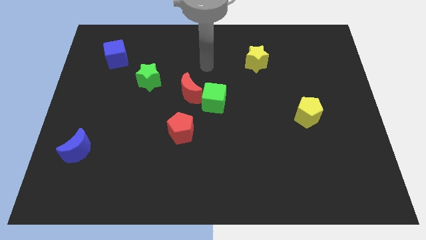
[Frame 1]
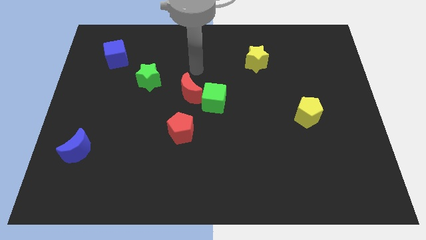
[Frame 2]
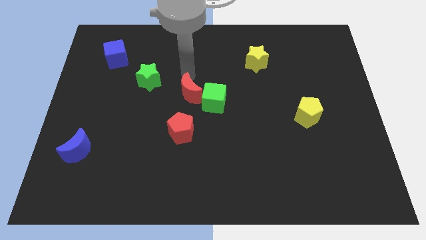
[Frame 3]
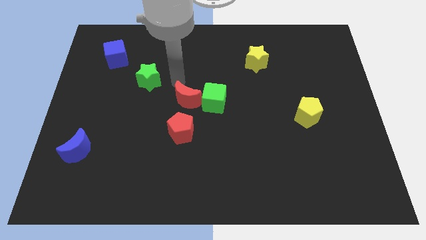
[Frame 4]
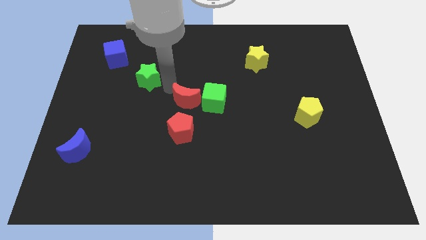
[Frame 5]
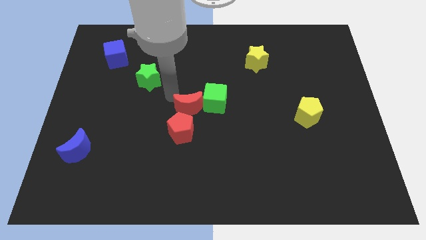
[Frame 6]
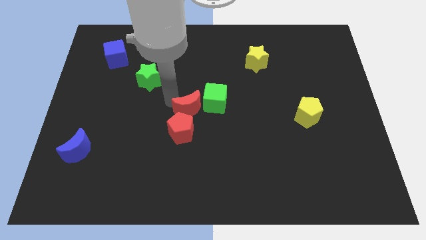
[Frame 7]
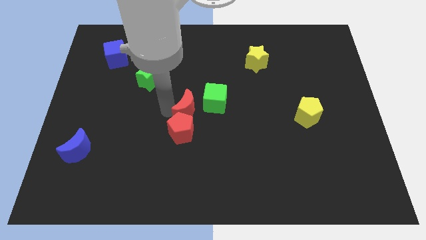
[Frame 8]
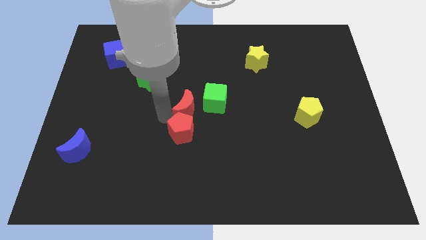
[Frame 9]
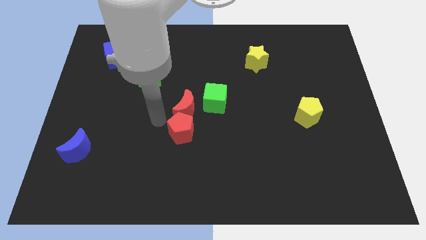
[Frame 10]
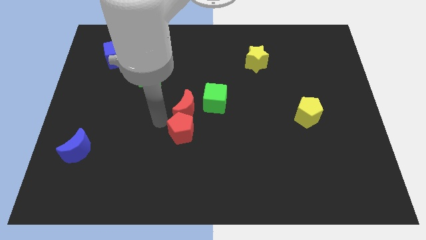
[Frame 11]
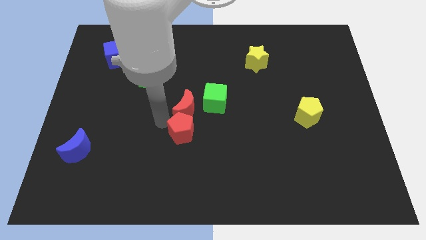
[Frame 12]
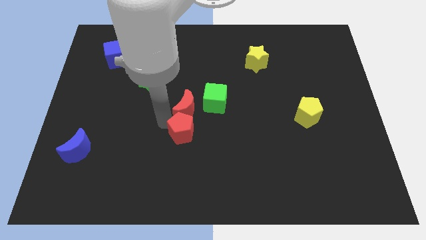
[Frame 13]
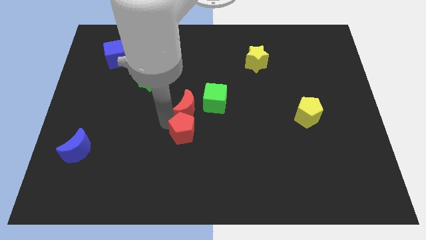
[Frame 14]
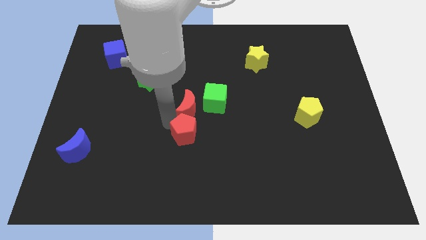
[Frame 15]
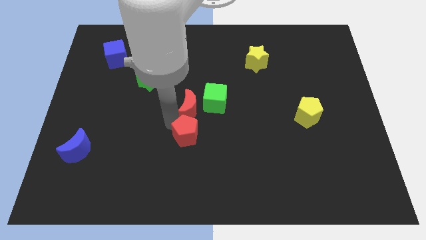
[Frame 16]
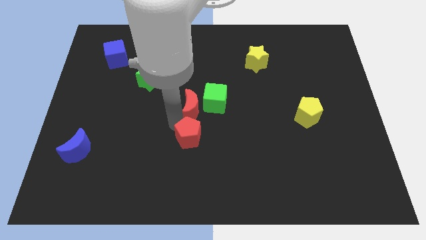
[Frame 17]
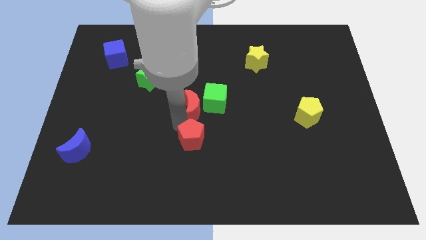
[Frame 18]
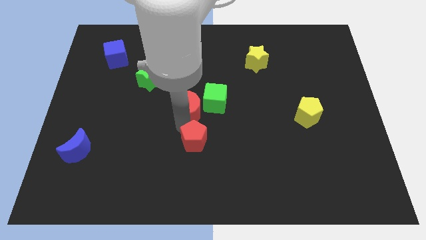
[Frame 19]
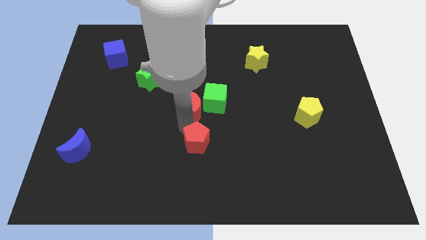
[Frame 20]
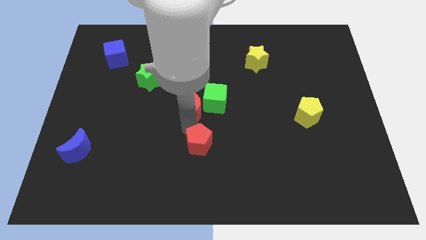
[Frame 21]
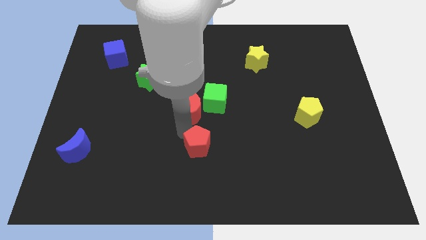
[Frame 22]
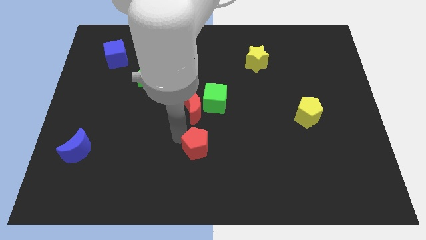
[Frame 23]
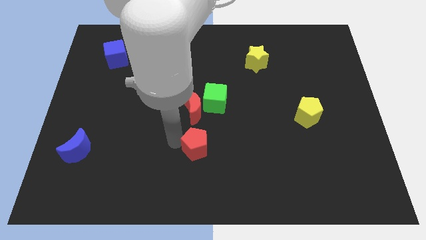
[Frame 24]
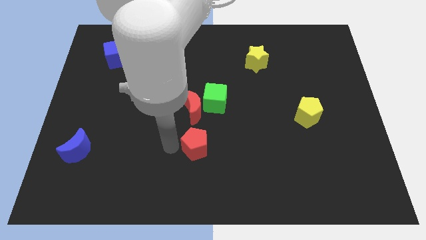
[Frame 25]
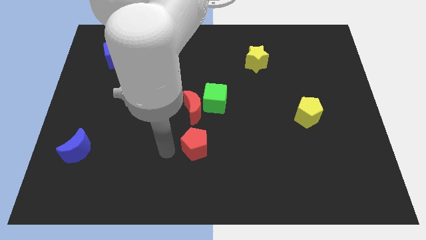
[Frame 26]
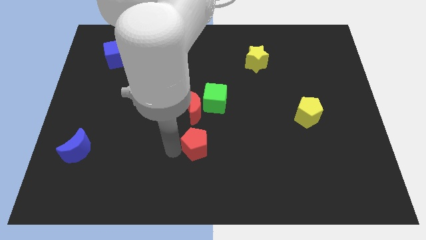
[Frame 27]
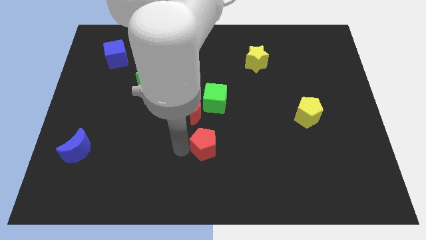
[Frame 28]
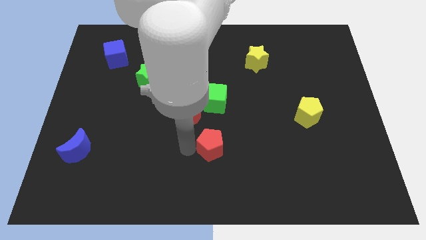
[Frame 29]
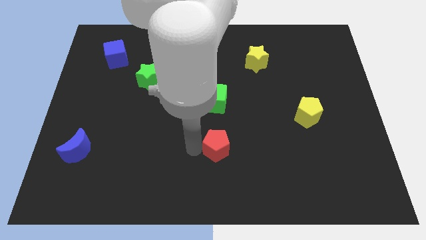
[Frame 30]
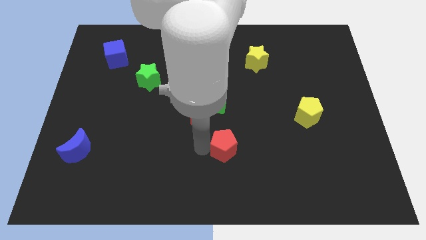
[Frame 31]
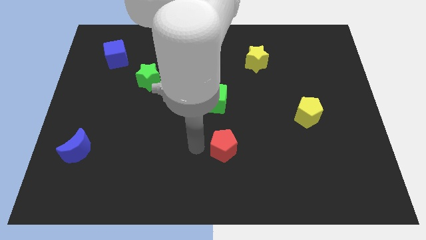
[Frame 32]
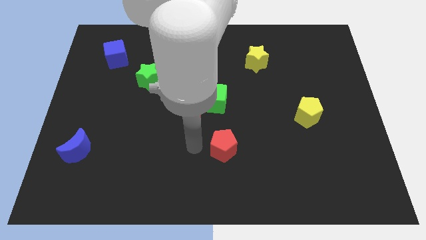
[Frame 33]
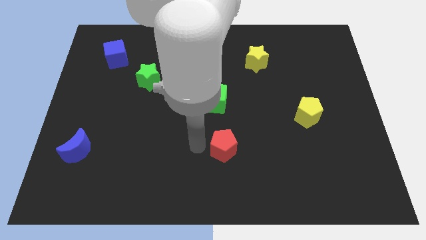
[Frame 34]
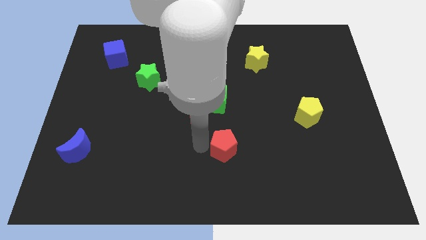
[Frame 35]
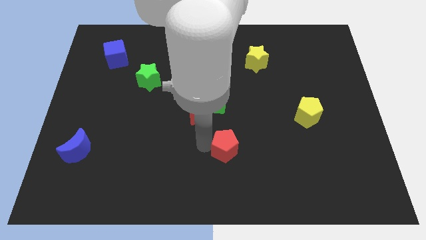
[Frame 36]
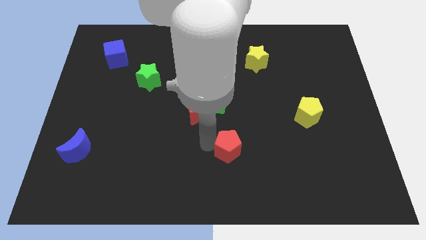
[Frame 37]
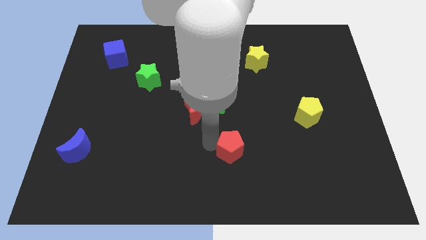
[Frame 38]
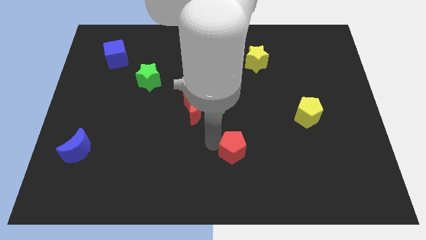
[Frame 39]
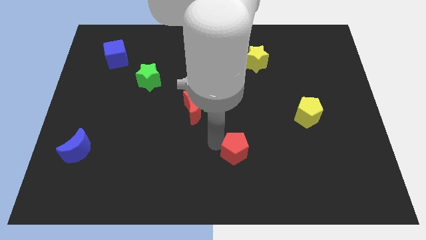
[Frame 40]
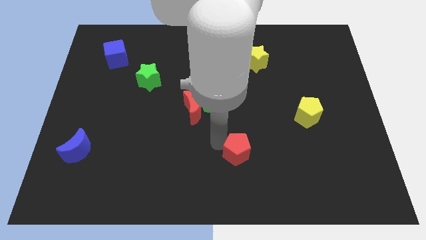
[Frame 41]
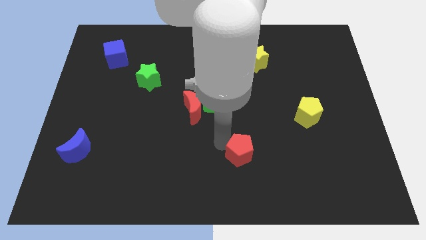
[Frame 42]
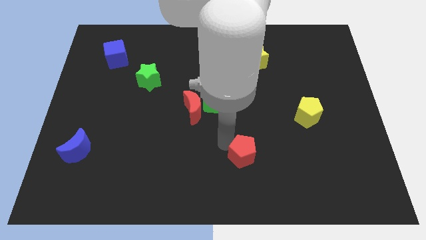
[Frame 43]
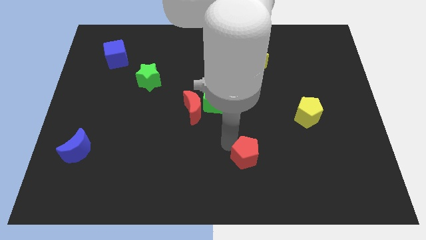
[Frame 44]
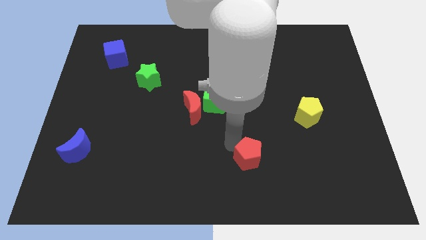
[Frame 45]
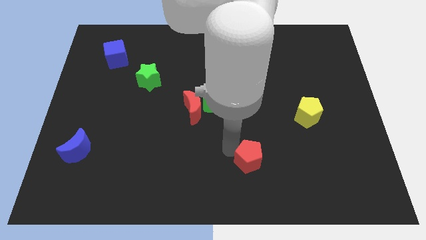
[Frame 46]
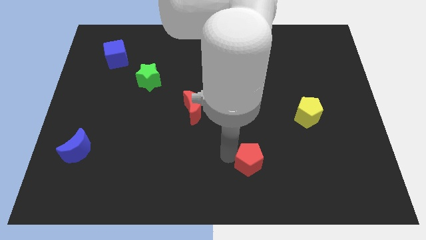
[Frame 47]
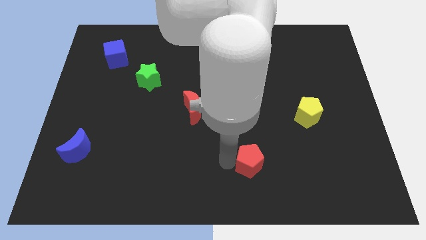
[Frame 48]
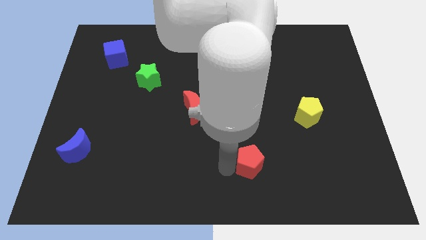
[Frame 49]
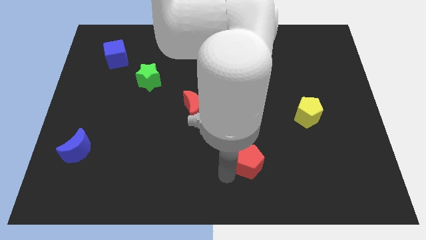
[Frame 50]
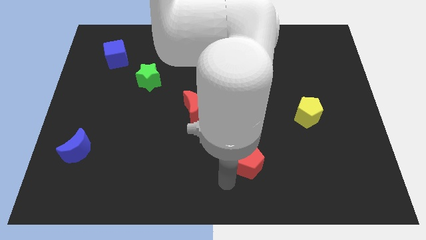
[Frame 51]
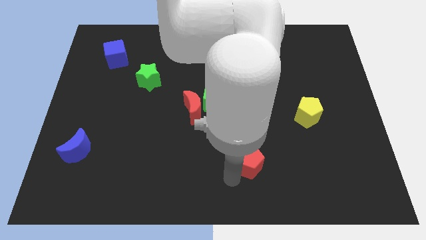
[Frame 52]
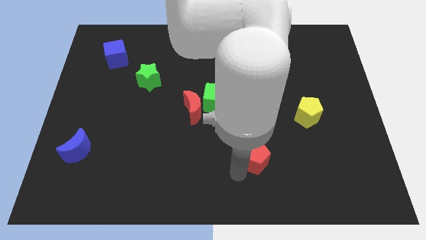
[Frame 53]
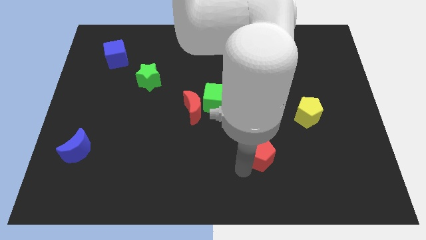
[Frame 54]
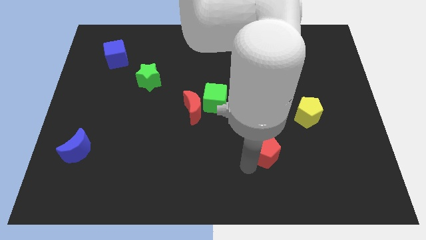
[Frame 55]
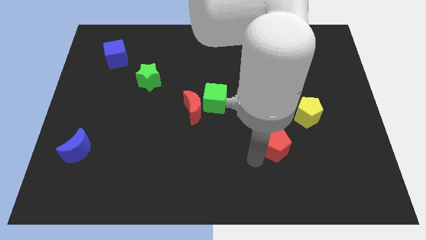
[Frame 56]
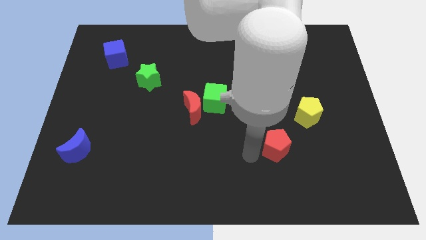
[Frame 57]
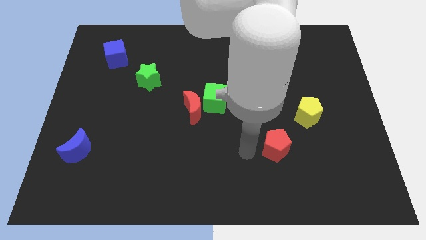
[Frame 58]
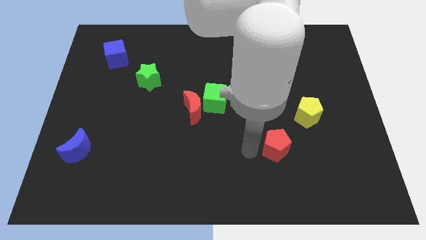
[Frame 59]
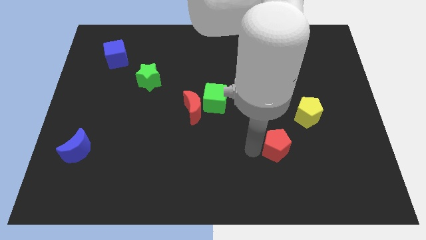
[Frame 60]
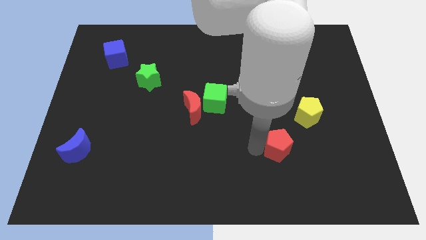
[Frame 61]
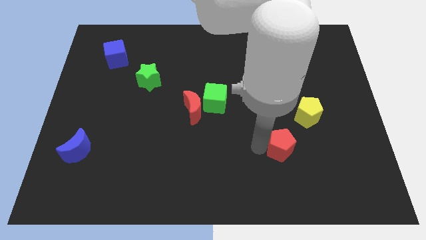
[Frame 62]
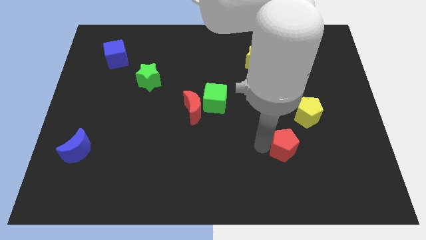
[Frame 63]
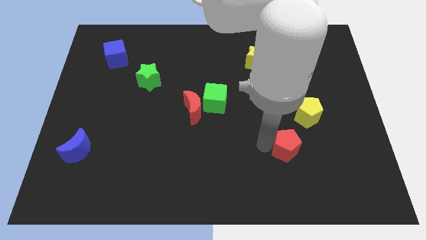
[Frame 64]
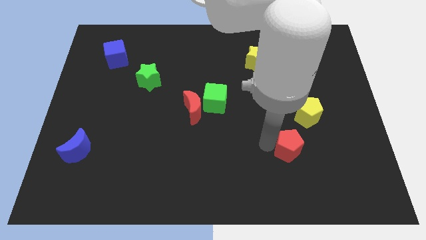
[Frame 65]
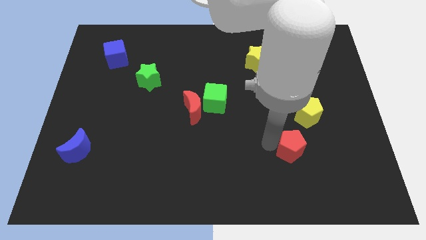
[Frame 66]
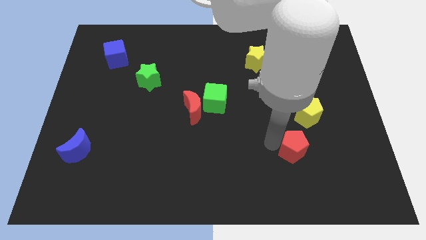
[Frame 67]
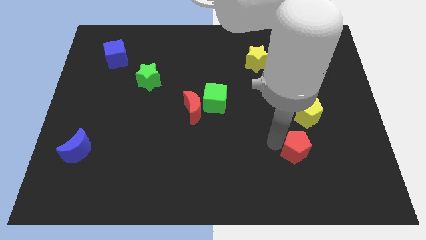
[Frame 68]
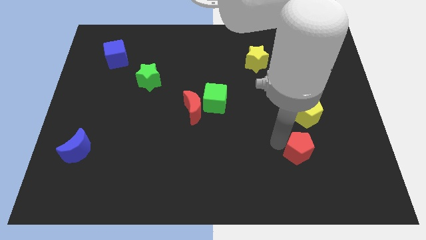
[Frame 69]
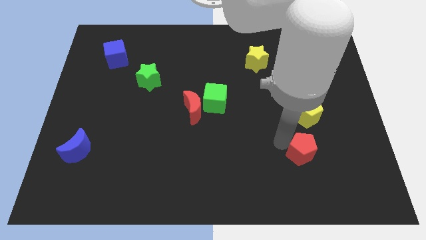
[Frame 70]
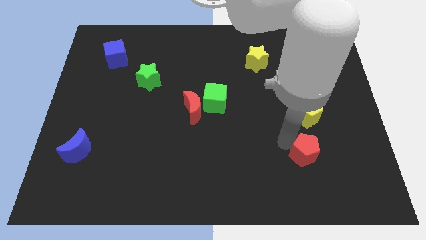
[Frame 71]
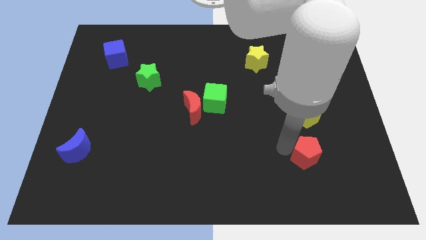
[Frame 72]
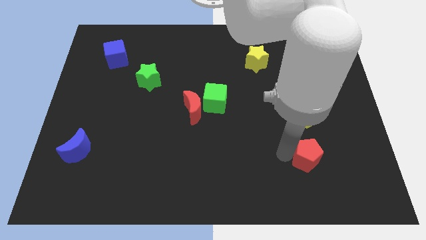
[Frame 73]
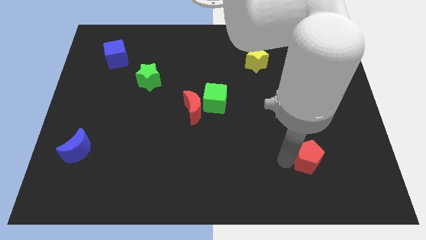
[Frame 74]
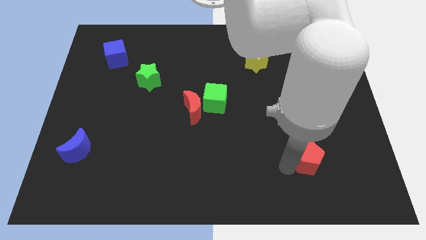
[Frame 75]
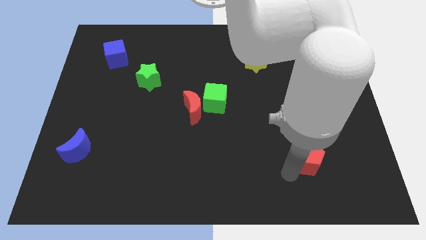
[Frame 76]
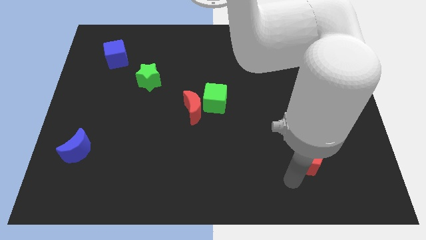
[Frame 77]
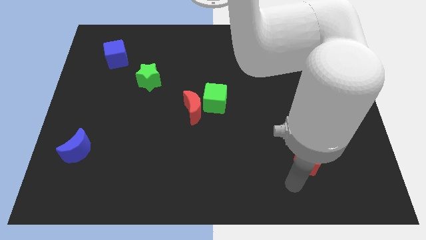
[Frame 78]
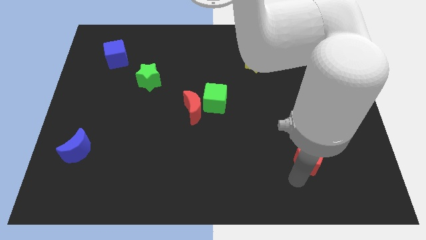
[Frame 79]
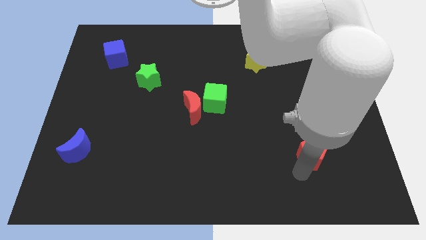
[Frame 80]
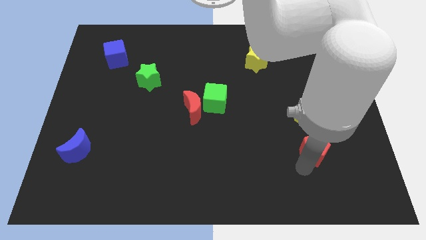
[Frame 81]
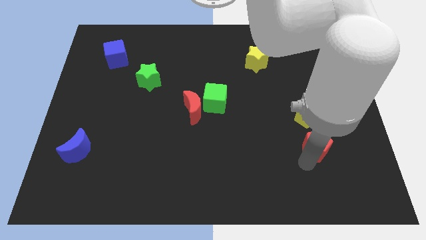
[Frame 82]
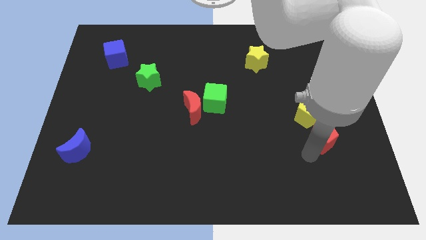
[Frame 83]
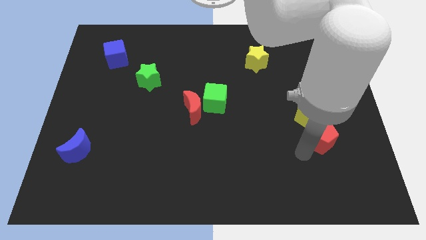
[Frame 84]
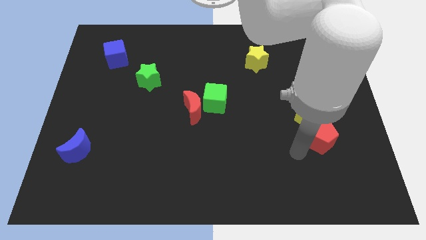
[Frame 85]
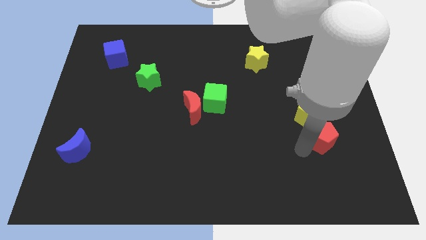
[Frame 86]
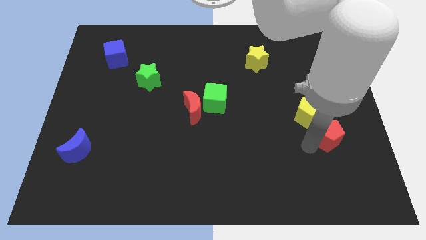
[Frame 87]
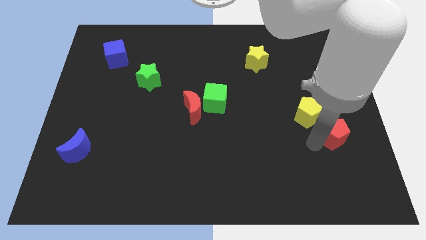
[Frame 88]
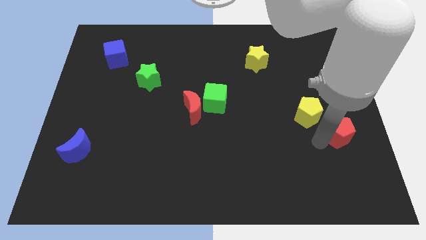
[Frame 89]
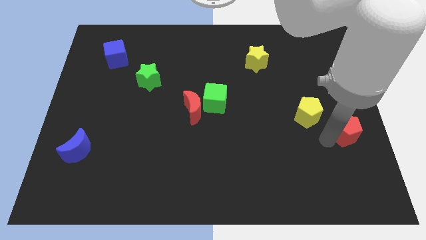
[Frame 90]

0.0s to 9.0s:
slide the red pentagon to the right side
